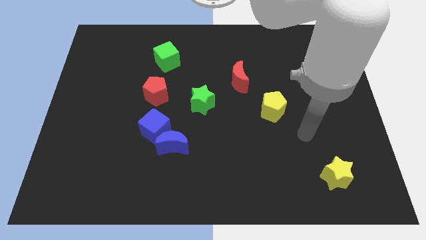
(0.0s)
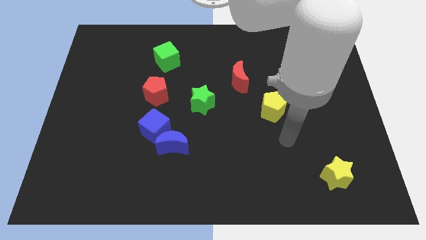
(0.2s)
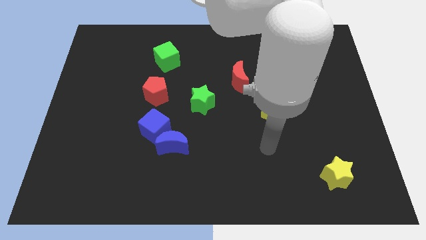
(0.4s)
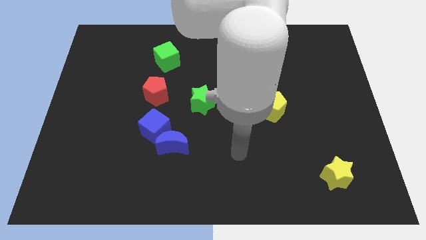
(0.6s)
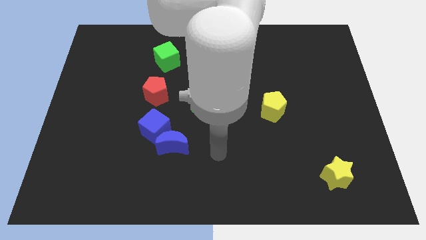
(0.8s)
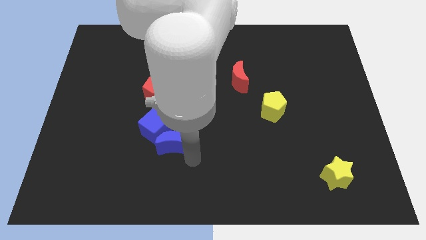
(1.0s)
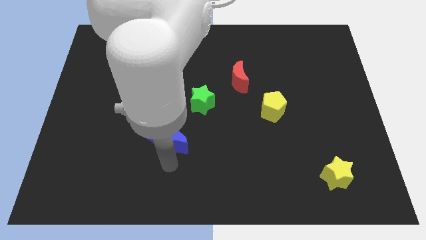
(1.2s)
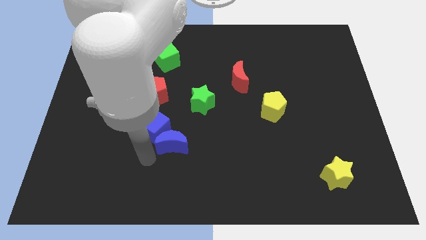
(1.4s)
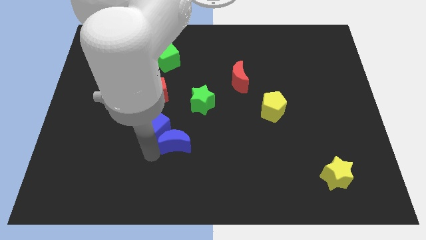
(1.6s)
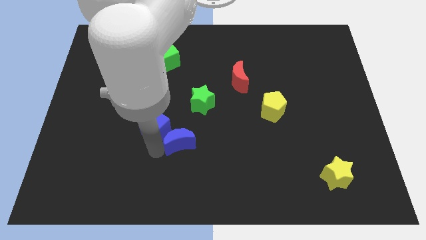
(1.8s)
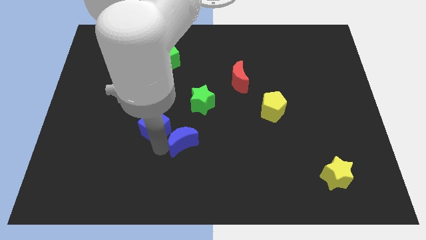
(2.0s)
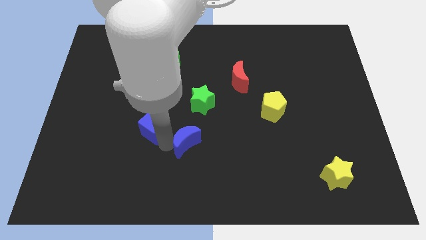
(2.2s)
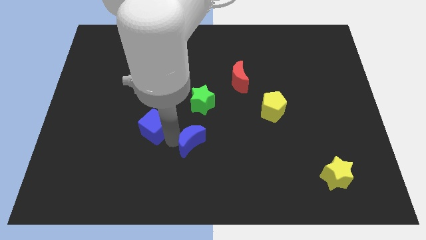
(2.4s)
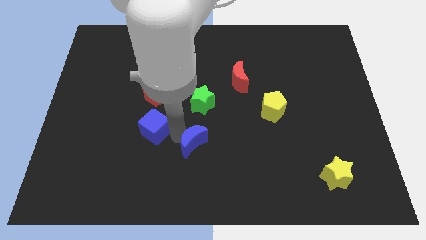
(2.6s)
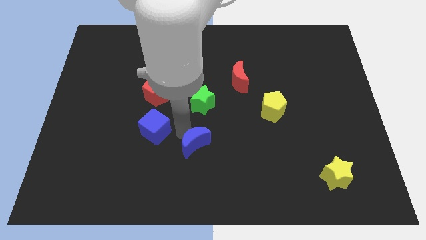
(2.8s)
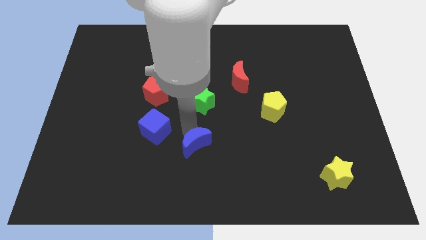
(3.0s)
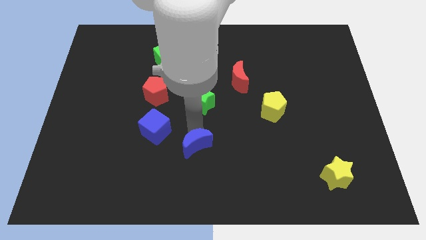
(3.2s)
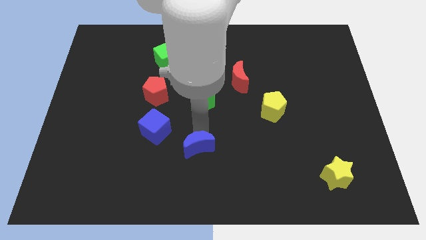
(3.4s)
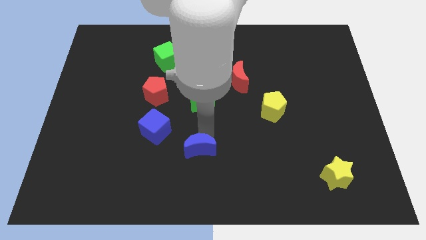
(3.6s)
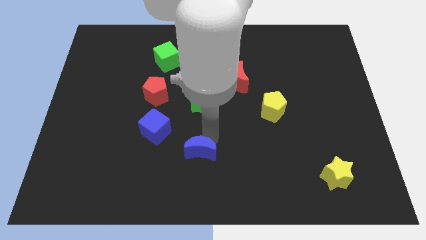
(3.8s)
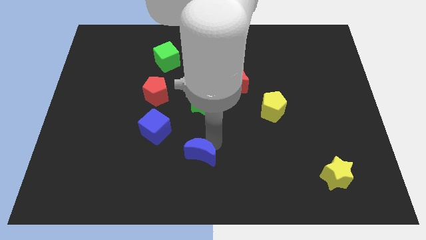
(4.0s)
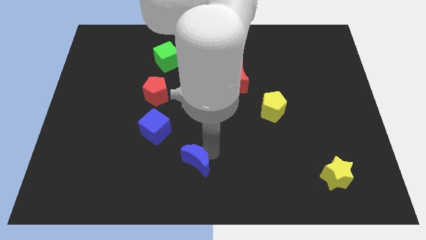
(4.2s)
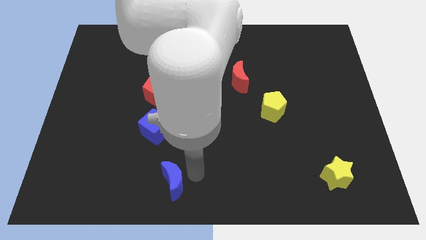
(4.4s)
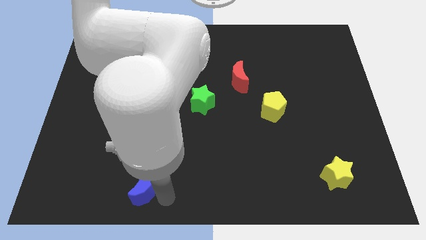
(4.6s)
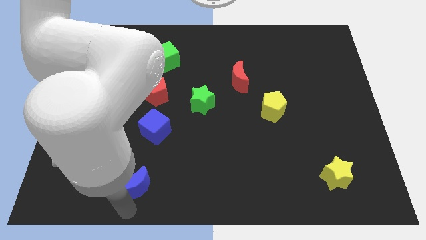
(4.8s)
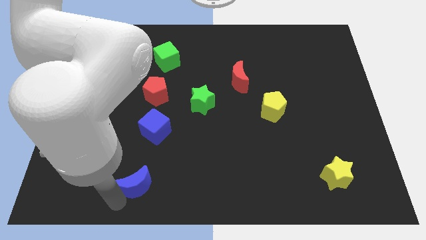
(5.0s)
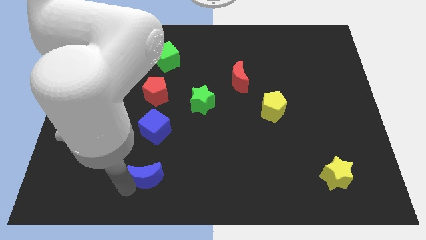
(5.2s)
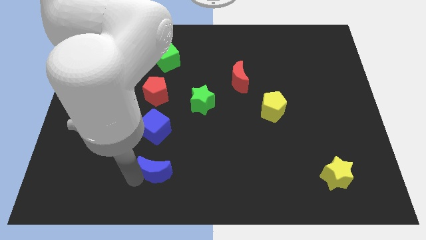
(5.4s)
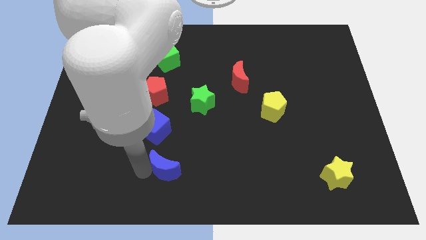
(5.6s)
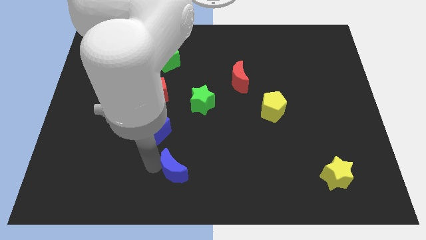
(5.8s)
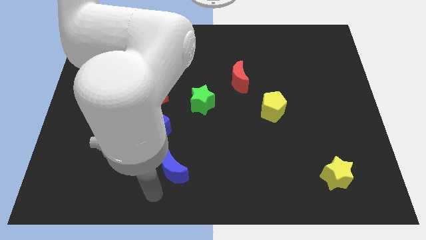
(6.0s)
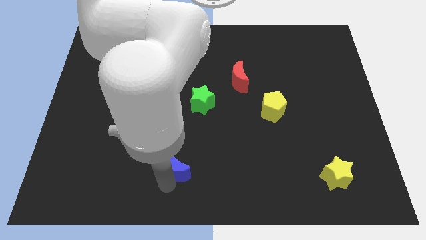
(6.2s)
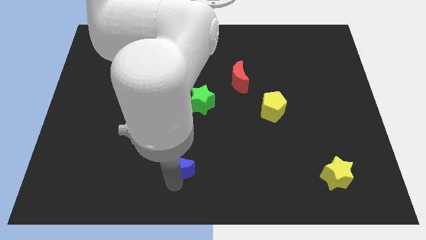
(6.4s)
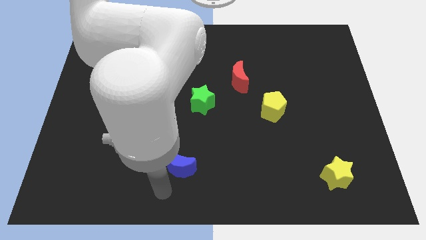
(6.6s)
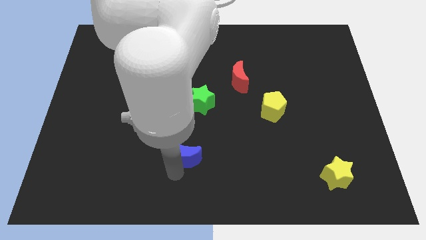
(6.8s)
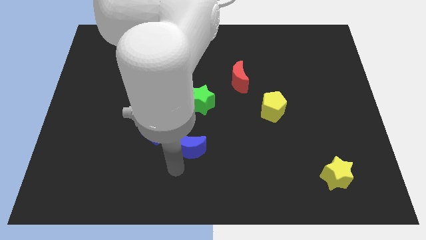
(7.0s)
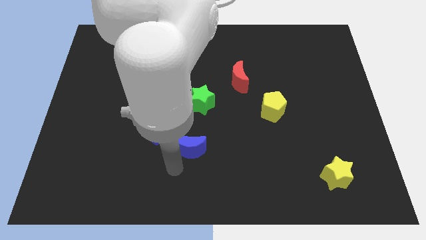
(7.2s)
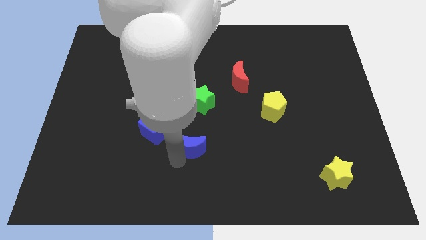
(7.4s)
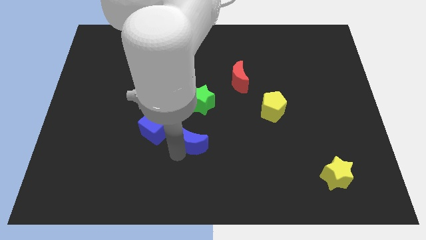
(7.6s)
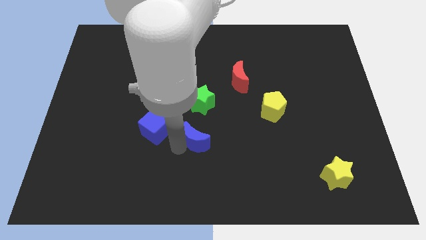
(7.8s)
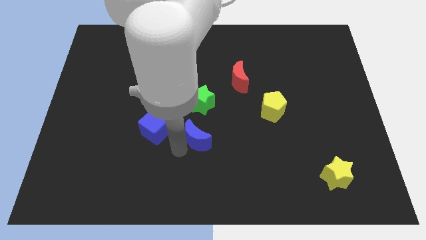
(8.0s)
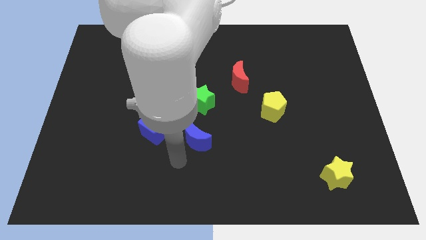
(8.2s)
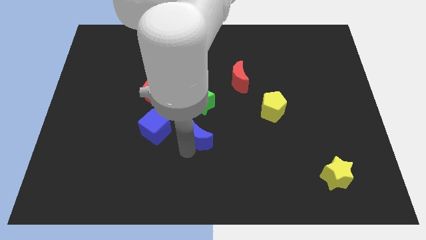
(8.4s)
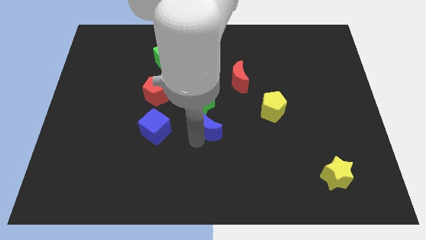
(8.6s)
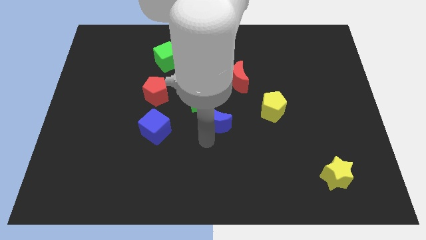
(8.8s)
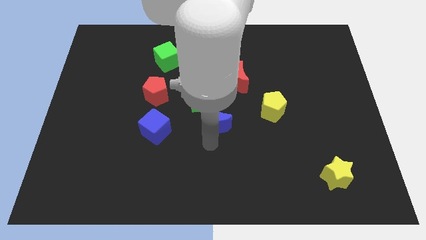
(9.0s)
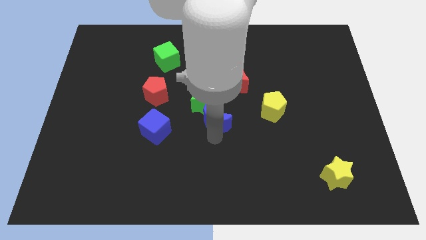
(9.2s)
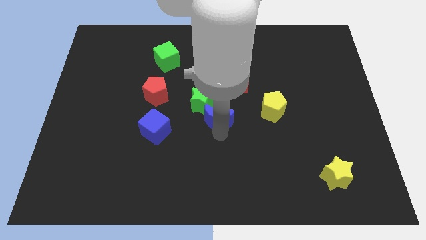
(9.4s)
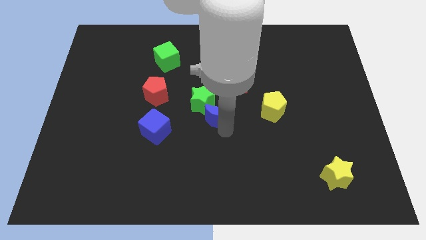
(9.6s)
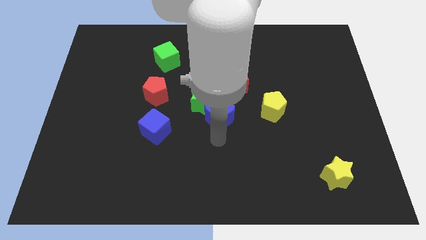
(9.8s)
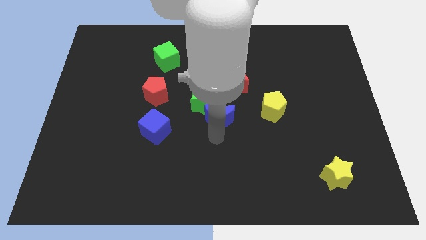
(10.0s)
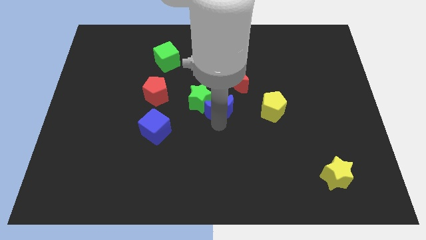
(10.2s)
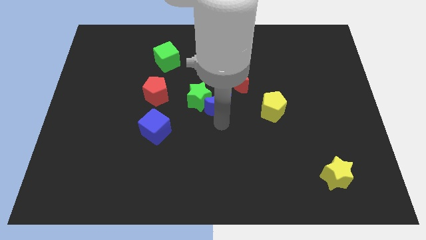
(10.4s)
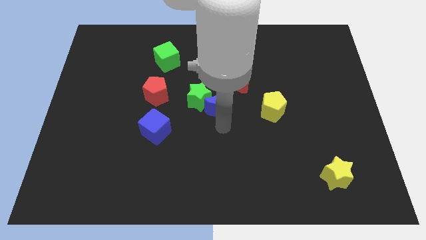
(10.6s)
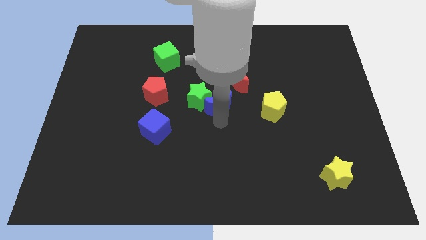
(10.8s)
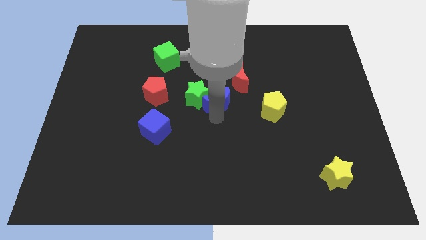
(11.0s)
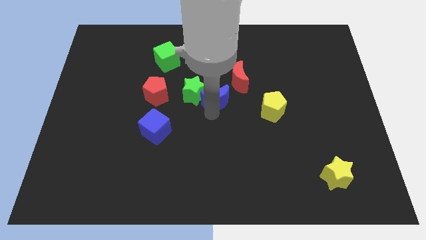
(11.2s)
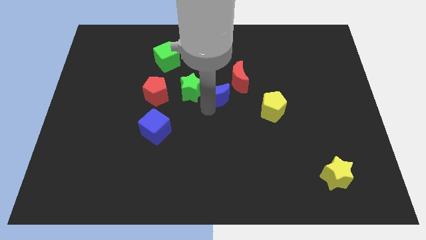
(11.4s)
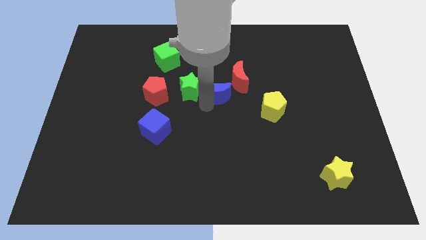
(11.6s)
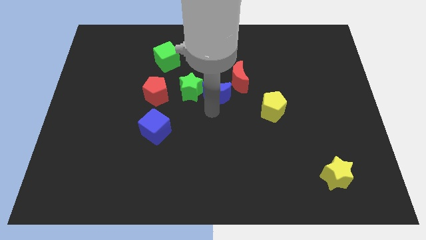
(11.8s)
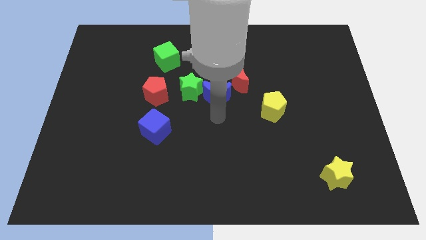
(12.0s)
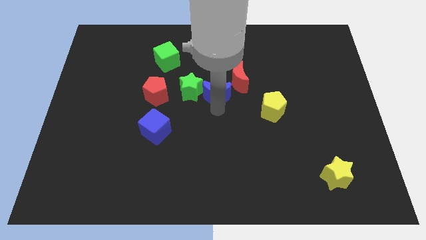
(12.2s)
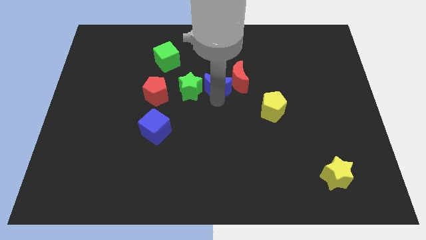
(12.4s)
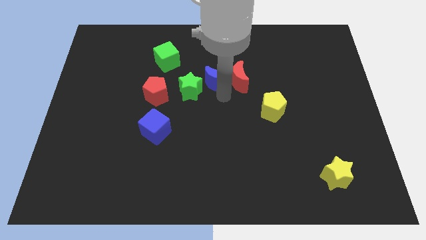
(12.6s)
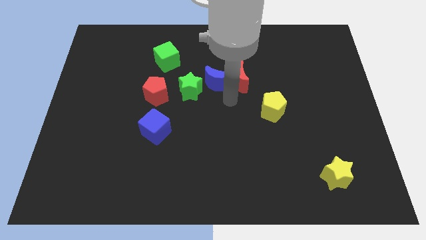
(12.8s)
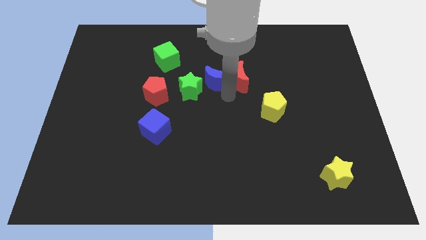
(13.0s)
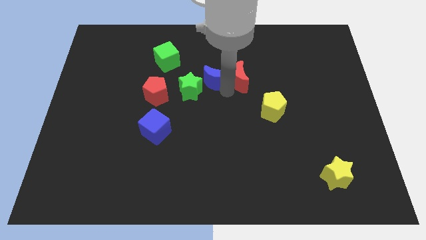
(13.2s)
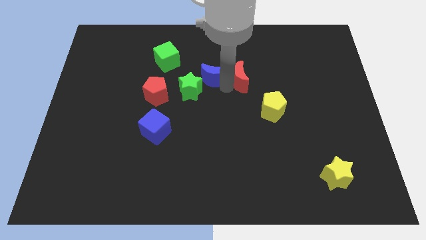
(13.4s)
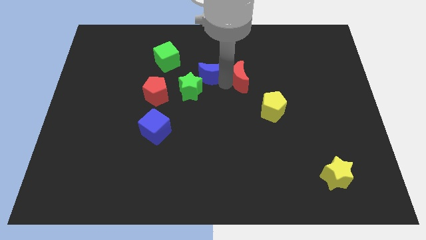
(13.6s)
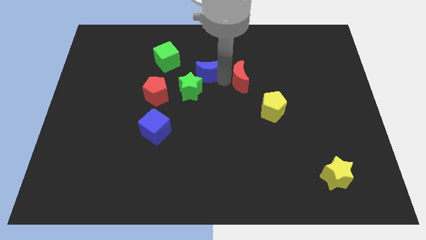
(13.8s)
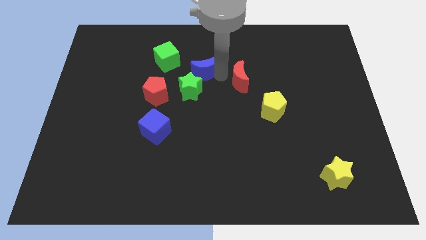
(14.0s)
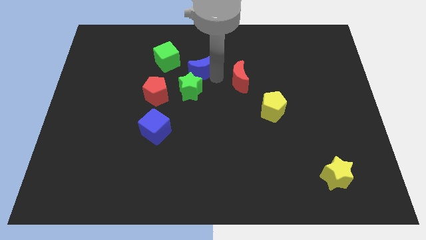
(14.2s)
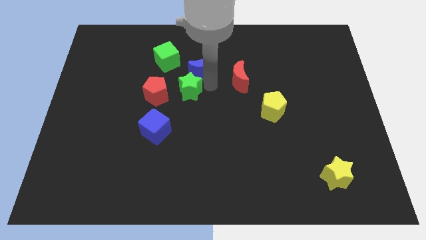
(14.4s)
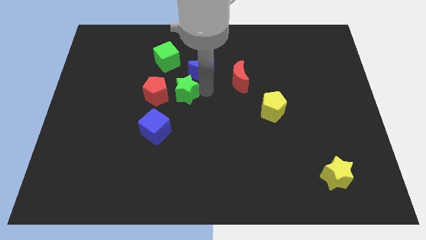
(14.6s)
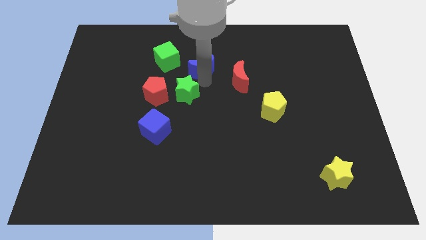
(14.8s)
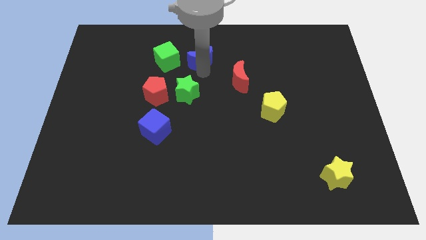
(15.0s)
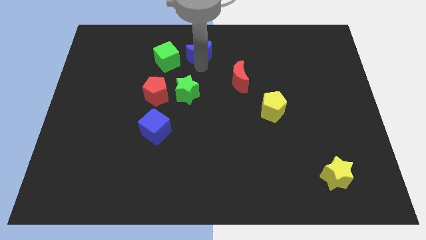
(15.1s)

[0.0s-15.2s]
move the blue moon to the top
